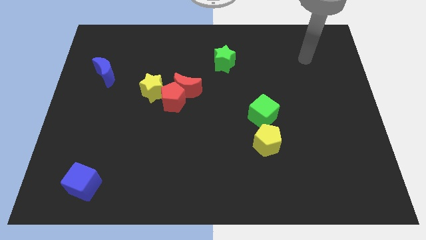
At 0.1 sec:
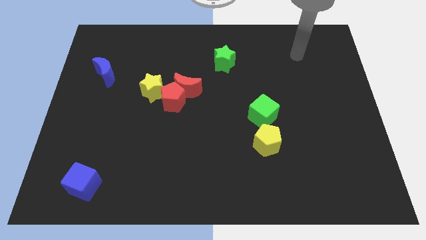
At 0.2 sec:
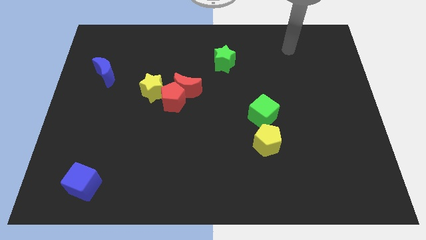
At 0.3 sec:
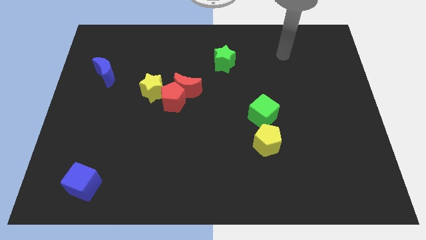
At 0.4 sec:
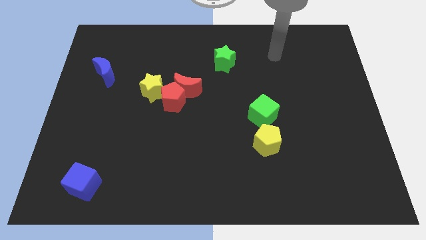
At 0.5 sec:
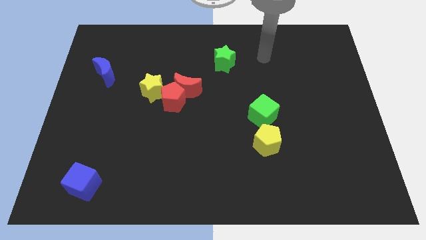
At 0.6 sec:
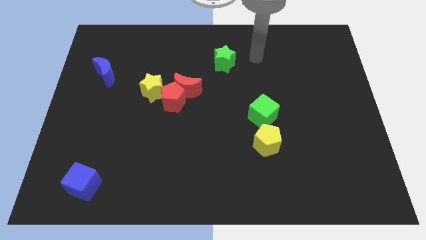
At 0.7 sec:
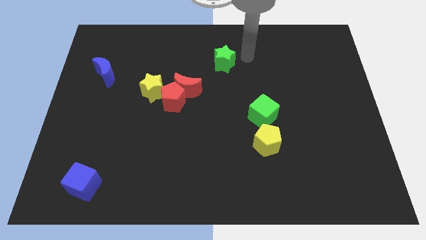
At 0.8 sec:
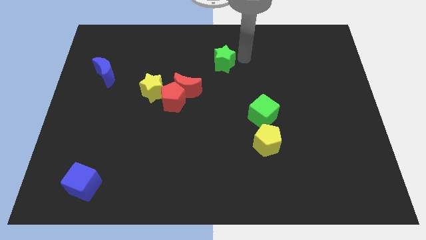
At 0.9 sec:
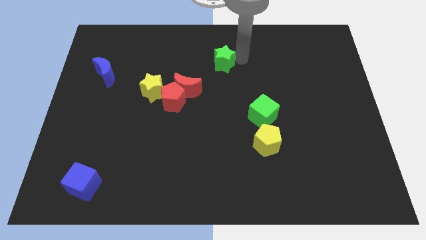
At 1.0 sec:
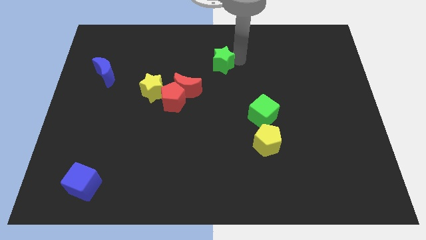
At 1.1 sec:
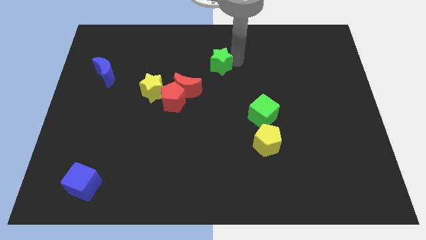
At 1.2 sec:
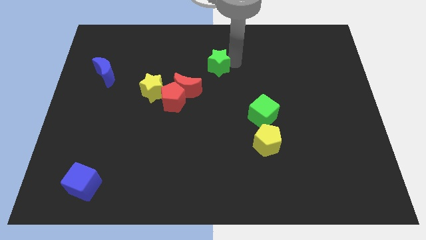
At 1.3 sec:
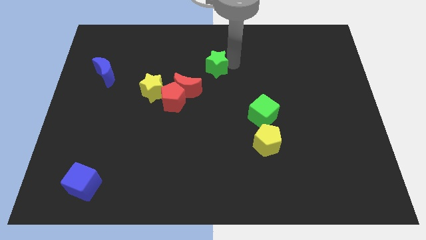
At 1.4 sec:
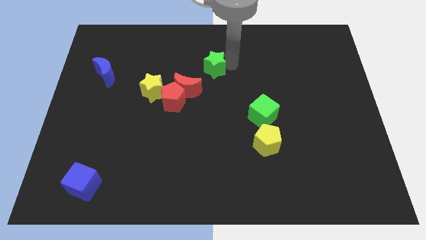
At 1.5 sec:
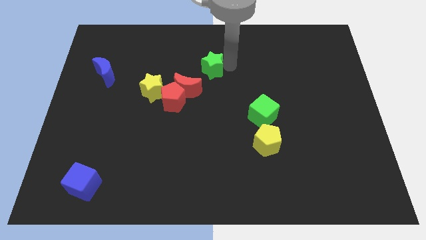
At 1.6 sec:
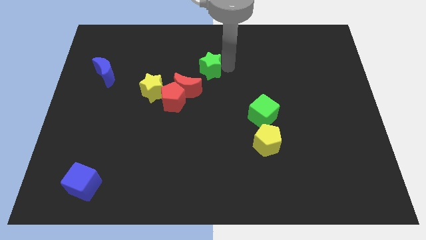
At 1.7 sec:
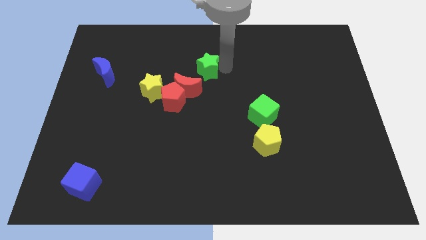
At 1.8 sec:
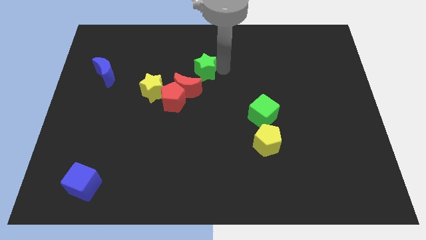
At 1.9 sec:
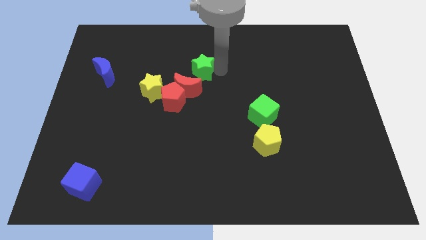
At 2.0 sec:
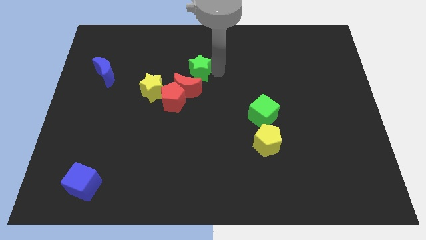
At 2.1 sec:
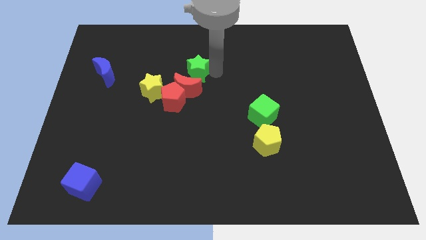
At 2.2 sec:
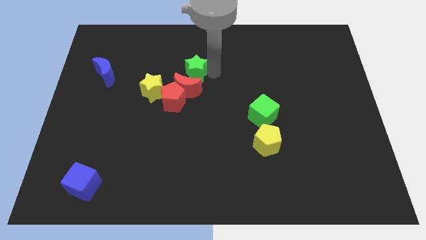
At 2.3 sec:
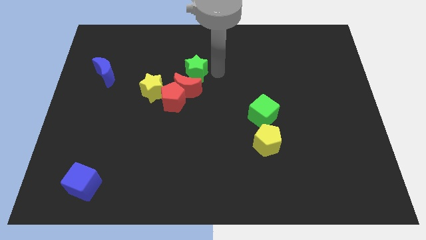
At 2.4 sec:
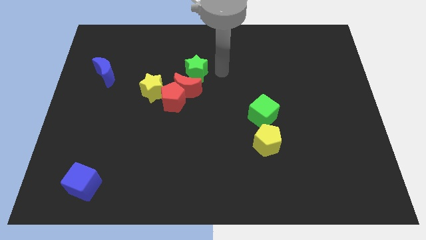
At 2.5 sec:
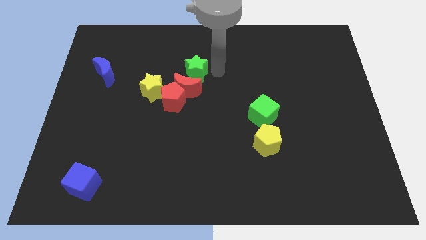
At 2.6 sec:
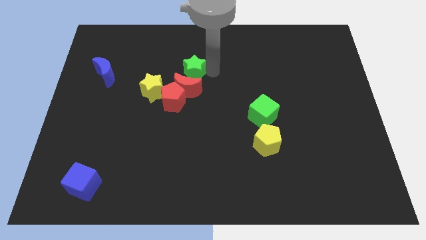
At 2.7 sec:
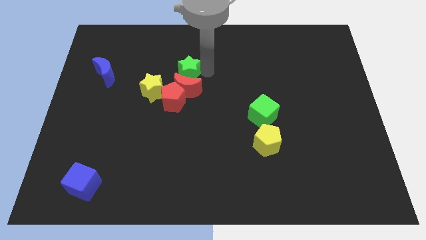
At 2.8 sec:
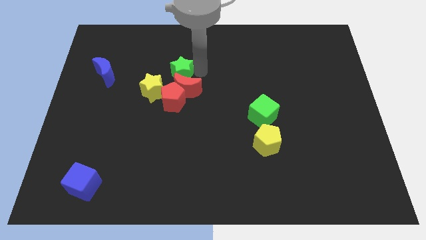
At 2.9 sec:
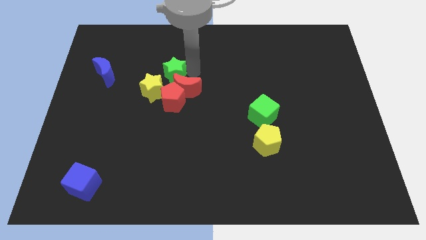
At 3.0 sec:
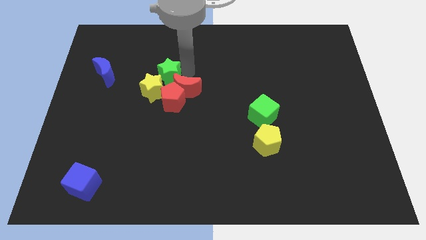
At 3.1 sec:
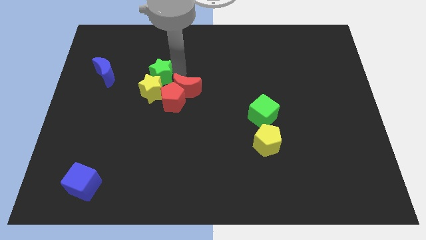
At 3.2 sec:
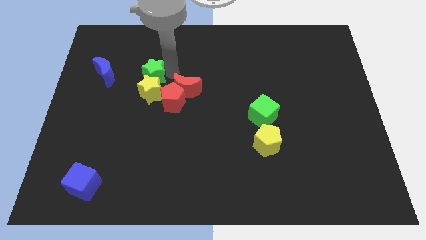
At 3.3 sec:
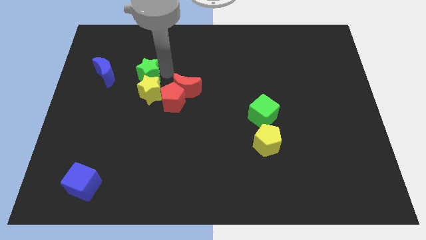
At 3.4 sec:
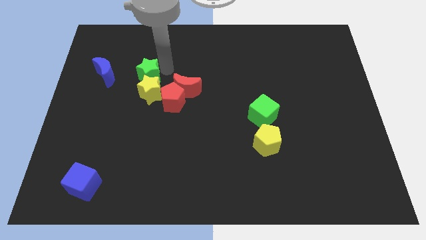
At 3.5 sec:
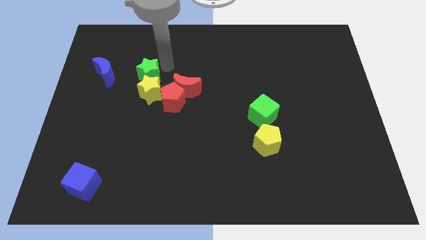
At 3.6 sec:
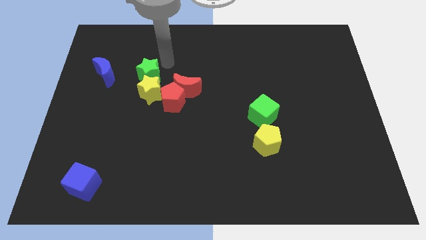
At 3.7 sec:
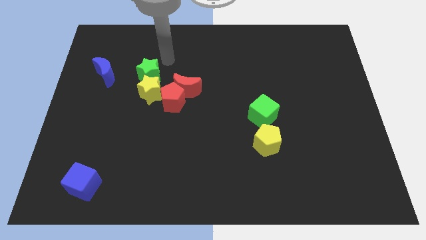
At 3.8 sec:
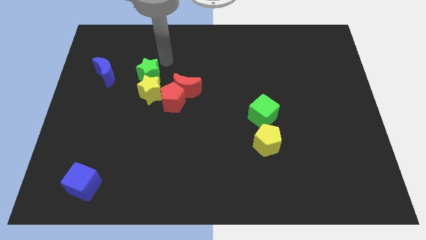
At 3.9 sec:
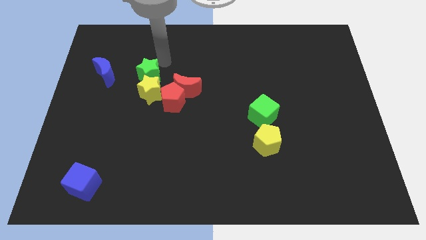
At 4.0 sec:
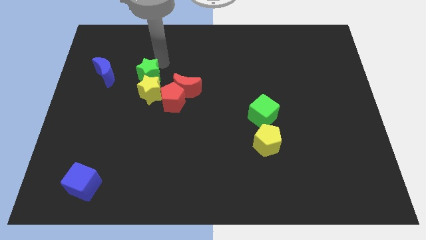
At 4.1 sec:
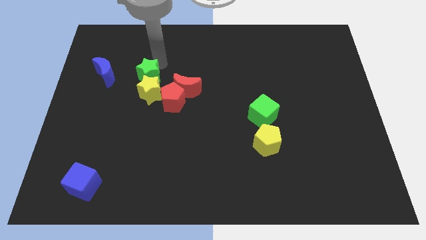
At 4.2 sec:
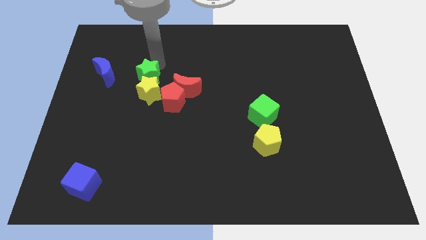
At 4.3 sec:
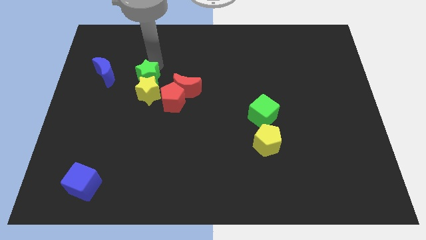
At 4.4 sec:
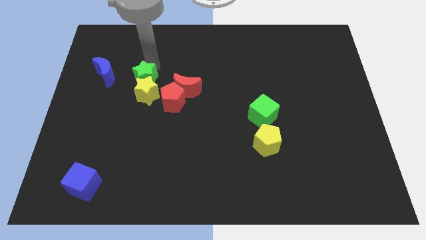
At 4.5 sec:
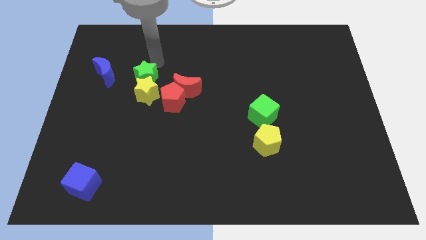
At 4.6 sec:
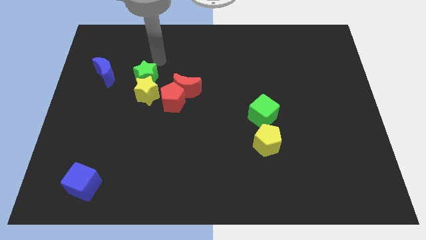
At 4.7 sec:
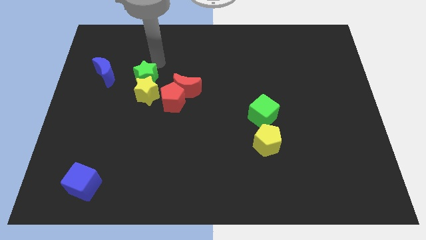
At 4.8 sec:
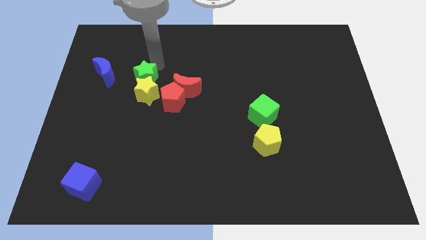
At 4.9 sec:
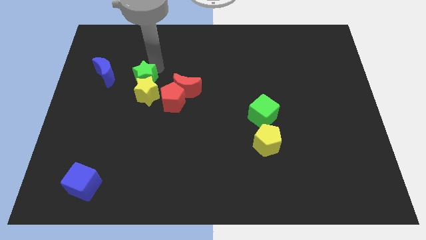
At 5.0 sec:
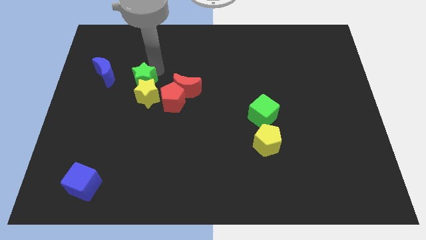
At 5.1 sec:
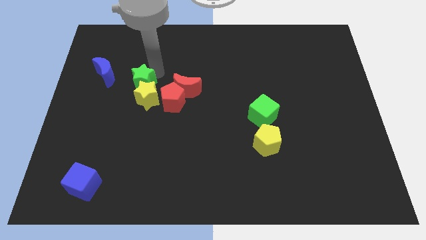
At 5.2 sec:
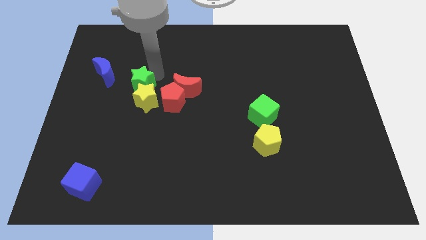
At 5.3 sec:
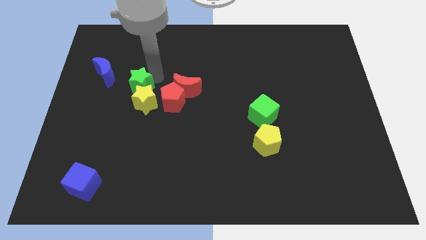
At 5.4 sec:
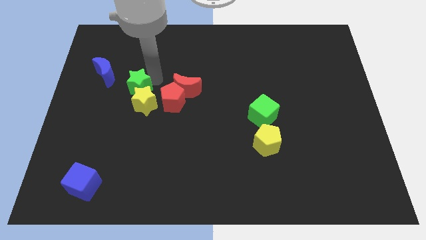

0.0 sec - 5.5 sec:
push the green star just left of the red pentagon

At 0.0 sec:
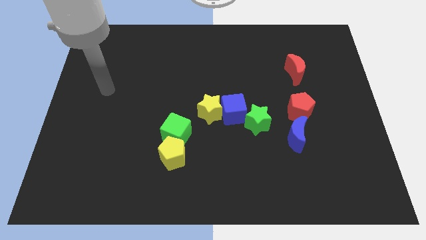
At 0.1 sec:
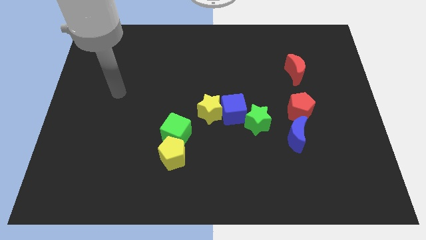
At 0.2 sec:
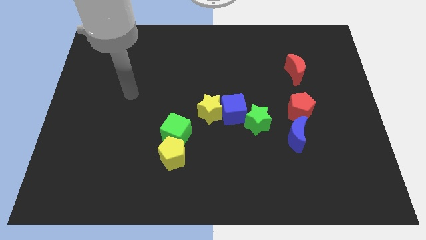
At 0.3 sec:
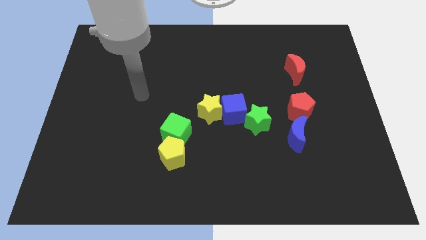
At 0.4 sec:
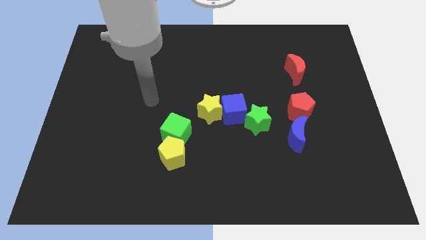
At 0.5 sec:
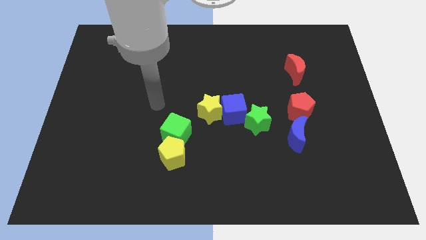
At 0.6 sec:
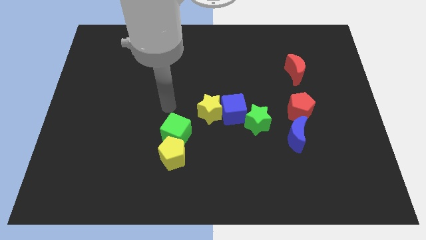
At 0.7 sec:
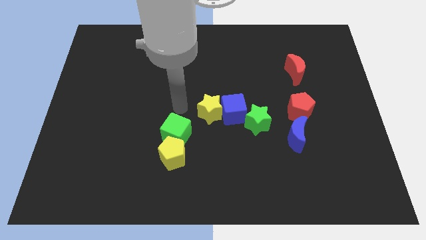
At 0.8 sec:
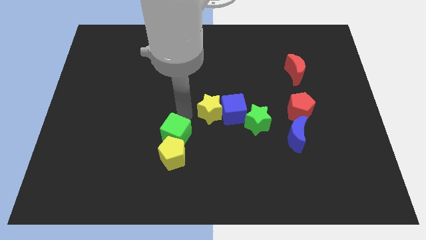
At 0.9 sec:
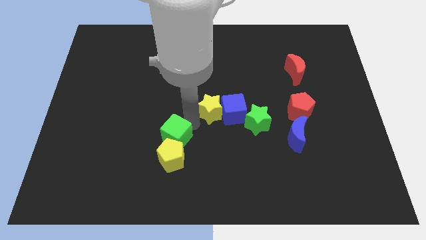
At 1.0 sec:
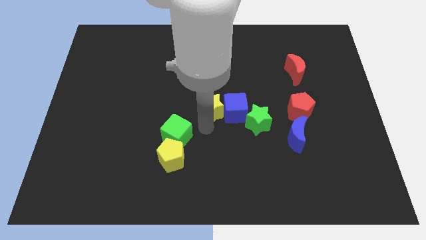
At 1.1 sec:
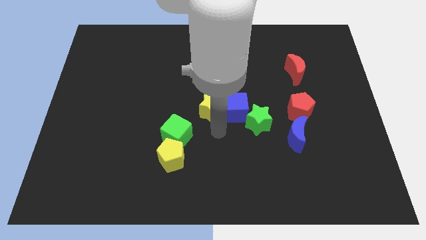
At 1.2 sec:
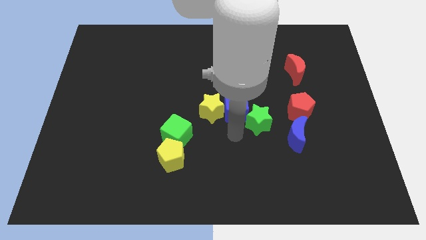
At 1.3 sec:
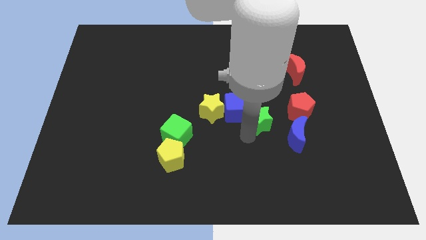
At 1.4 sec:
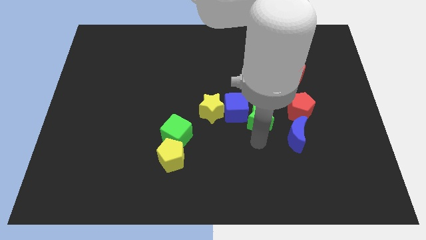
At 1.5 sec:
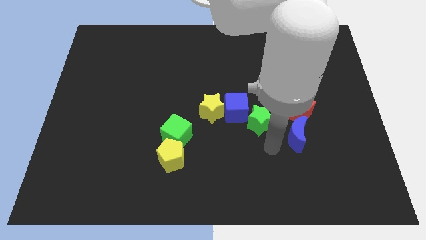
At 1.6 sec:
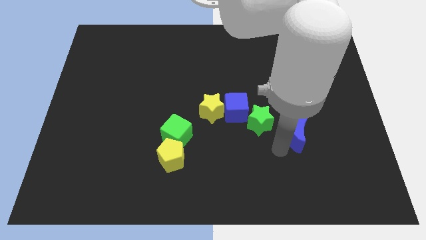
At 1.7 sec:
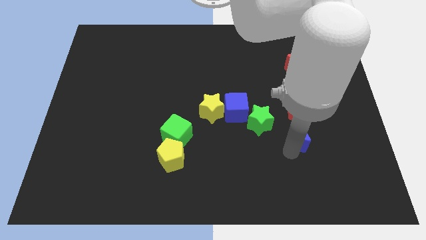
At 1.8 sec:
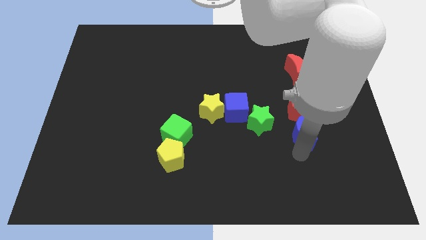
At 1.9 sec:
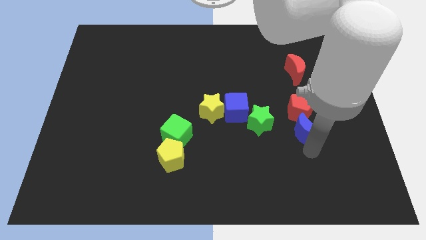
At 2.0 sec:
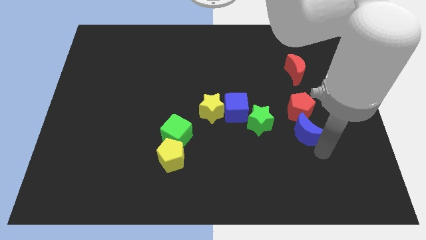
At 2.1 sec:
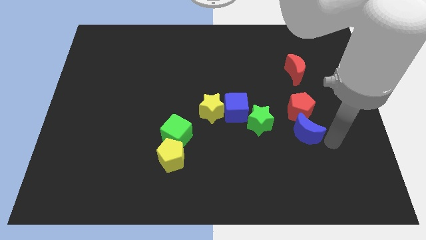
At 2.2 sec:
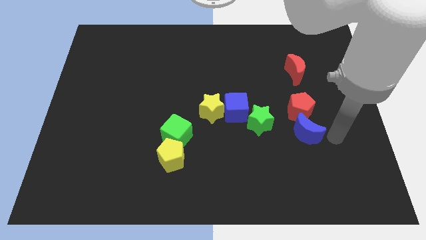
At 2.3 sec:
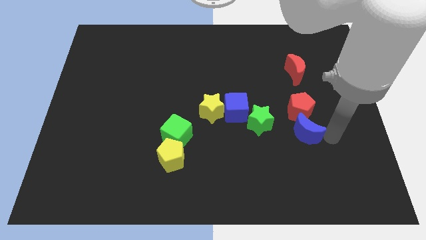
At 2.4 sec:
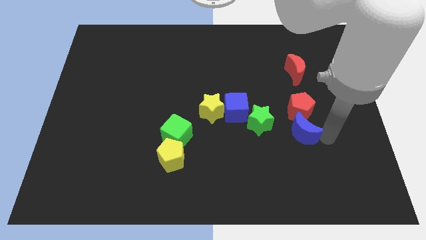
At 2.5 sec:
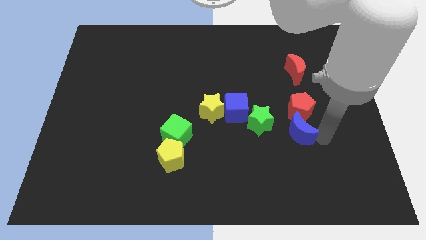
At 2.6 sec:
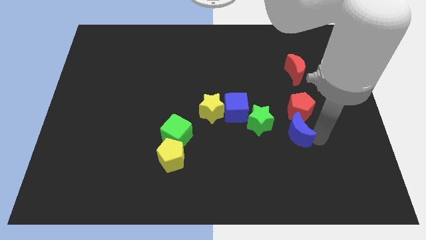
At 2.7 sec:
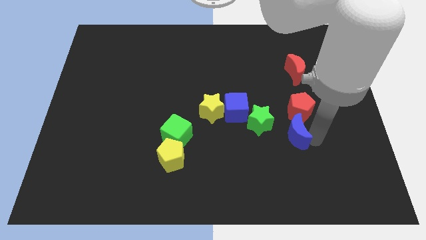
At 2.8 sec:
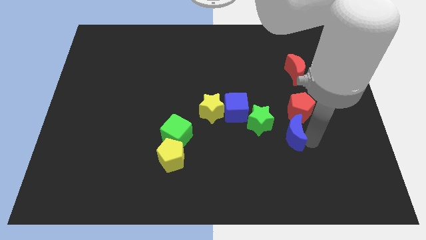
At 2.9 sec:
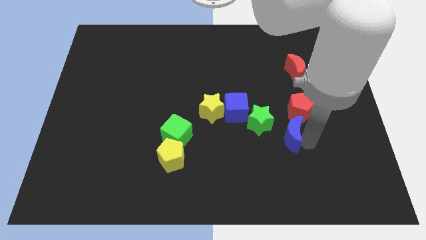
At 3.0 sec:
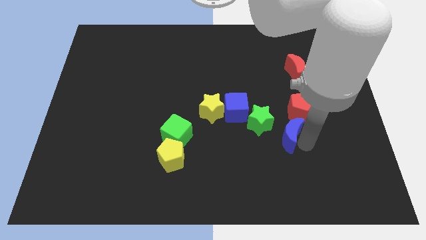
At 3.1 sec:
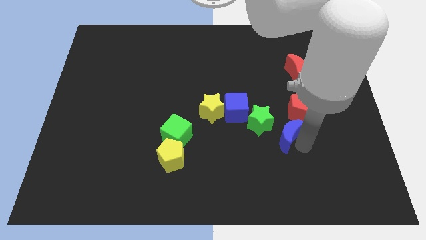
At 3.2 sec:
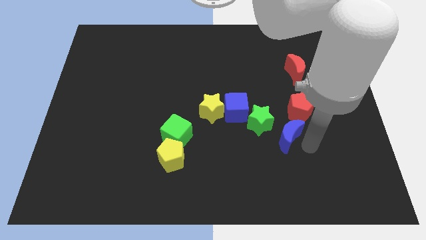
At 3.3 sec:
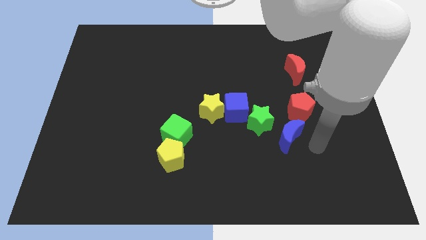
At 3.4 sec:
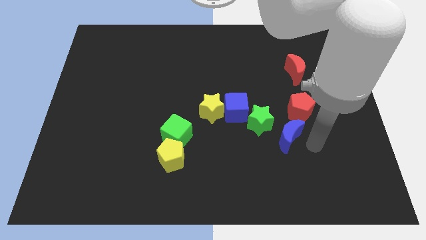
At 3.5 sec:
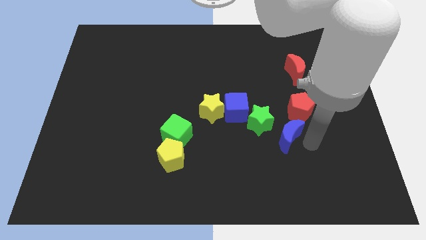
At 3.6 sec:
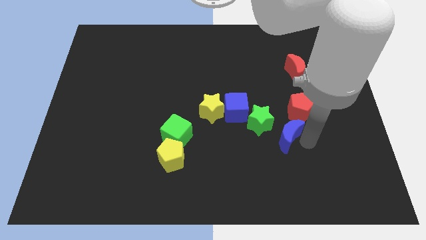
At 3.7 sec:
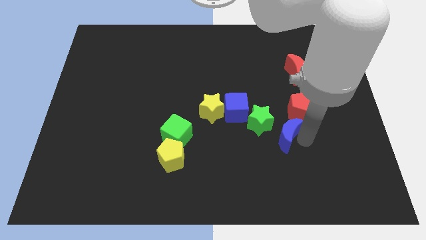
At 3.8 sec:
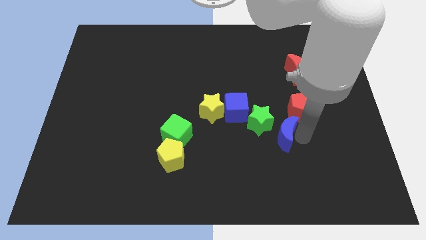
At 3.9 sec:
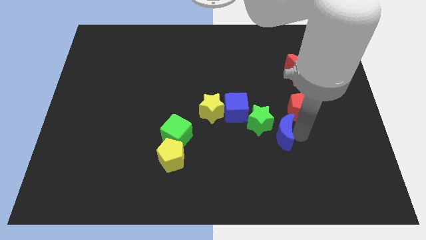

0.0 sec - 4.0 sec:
slide the blue moon diagonally down and to the right of the blue cube
